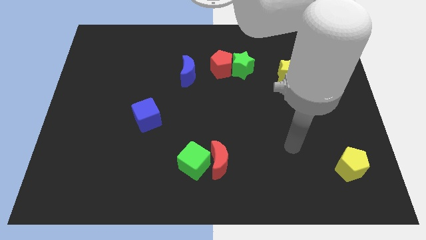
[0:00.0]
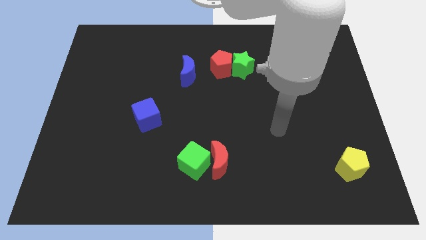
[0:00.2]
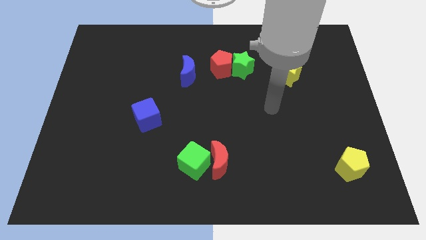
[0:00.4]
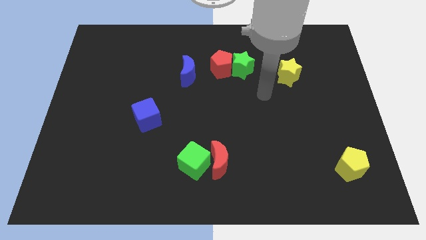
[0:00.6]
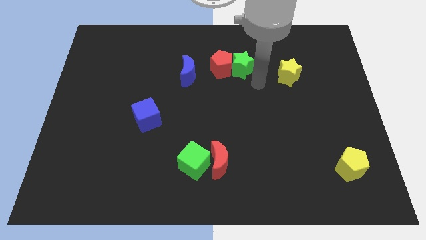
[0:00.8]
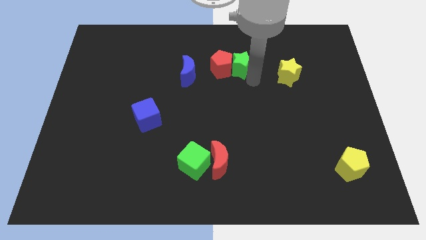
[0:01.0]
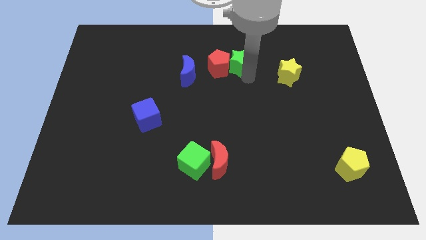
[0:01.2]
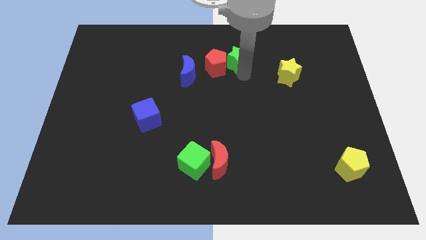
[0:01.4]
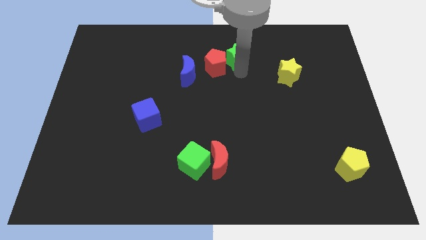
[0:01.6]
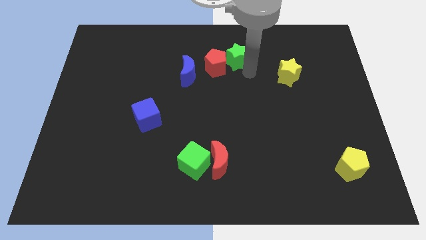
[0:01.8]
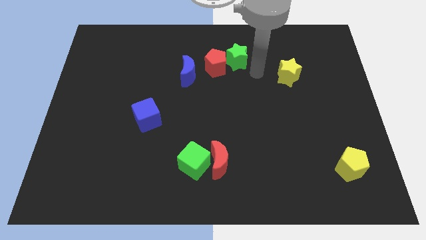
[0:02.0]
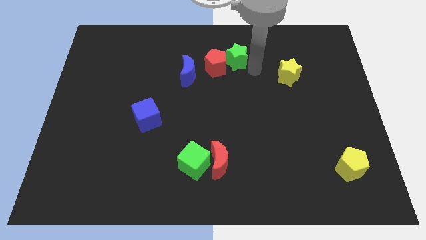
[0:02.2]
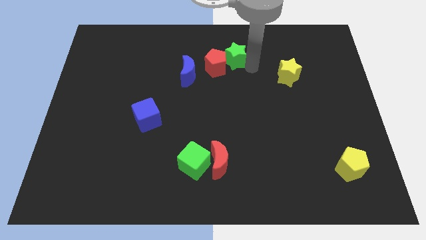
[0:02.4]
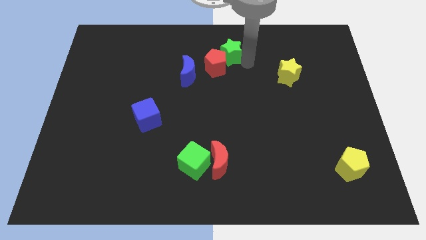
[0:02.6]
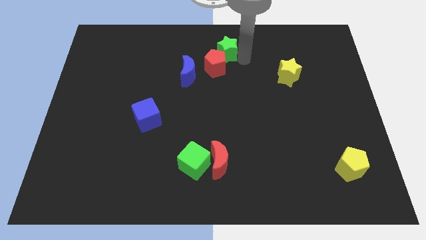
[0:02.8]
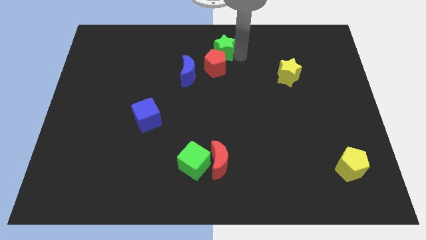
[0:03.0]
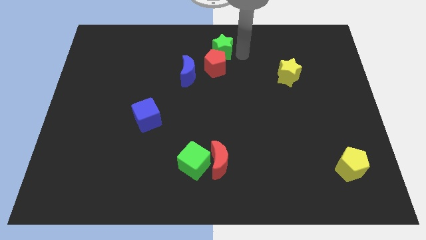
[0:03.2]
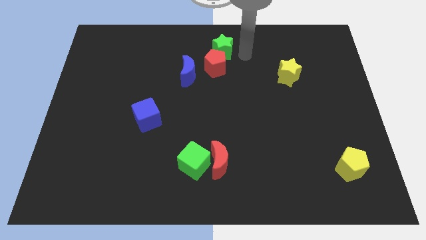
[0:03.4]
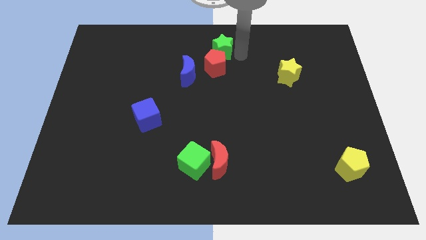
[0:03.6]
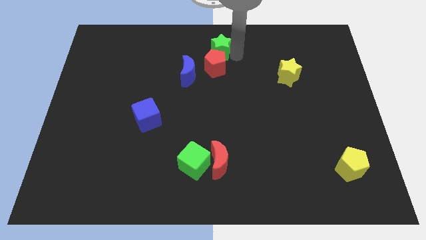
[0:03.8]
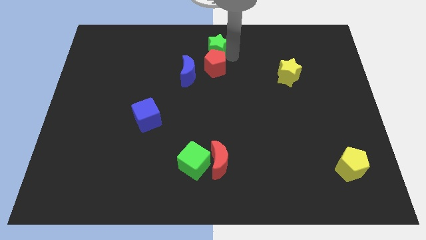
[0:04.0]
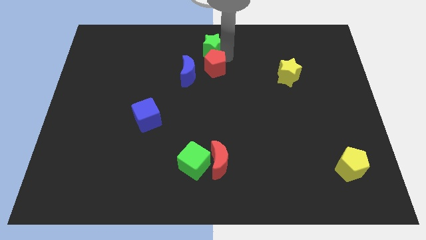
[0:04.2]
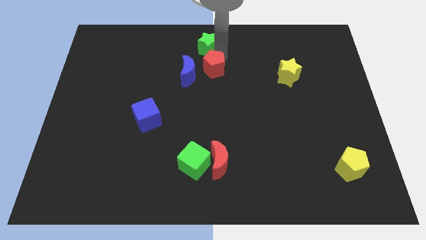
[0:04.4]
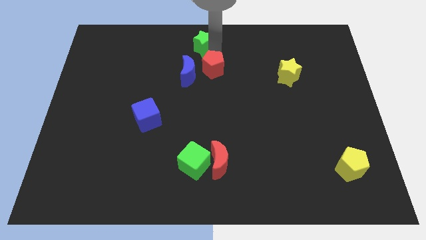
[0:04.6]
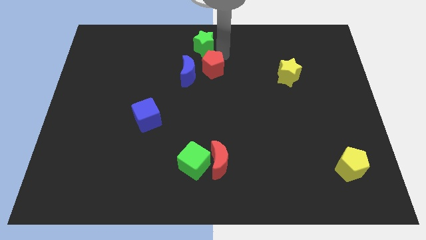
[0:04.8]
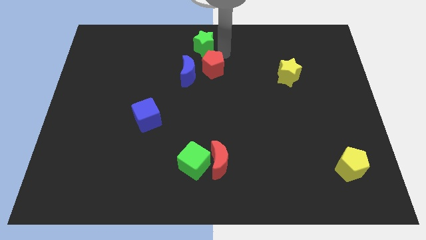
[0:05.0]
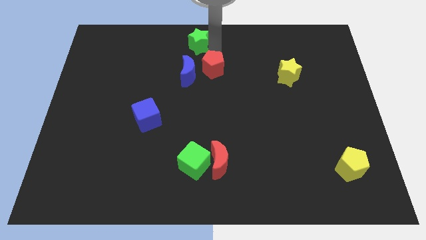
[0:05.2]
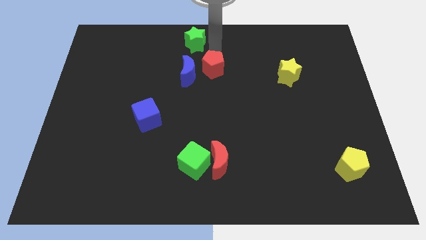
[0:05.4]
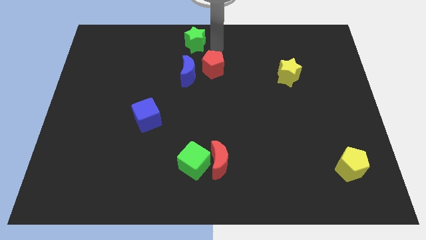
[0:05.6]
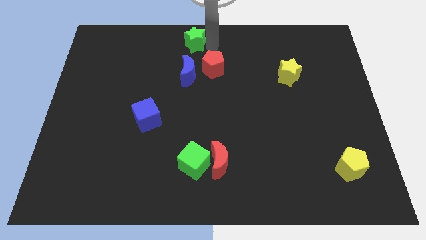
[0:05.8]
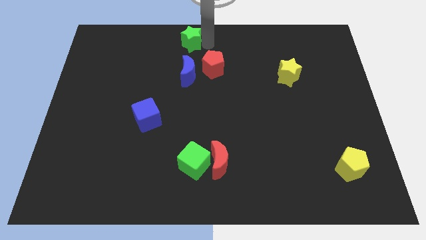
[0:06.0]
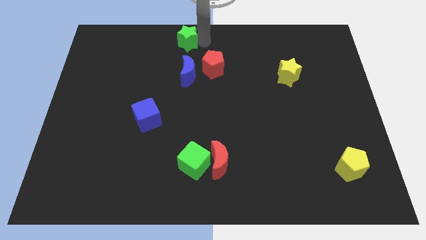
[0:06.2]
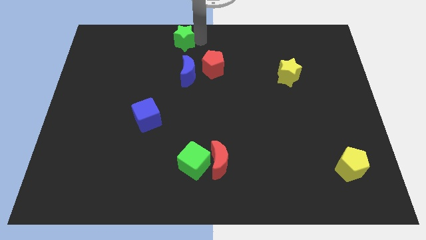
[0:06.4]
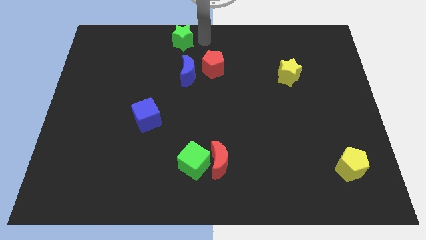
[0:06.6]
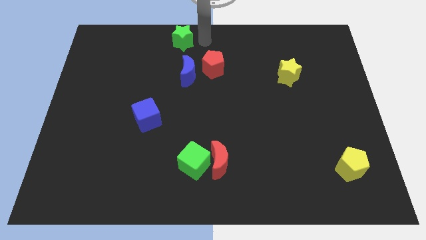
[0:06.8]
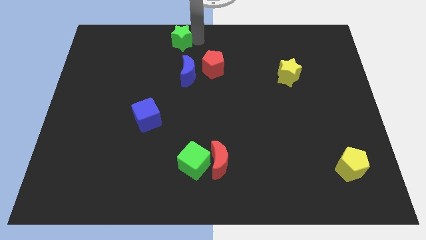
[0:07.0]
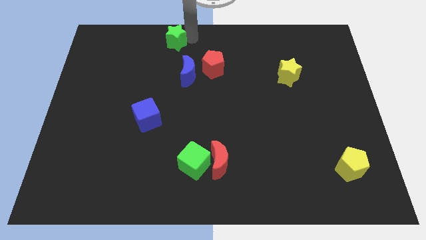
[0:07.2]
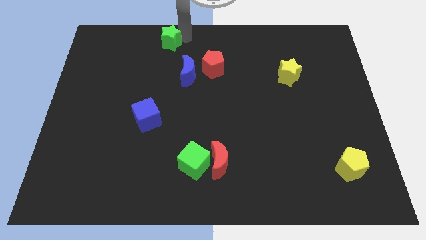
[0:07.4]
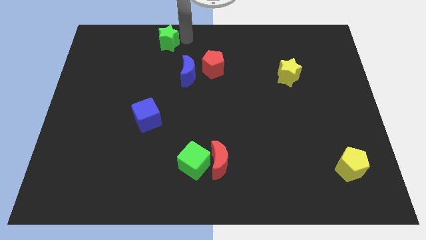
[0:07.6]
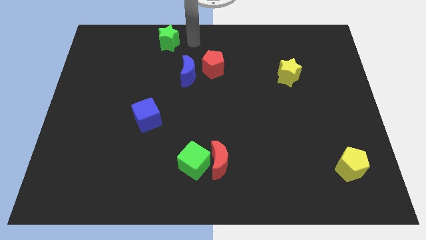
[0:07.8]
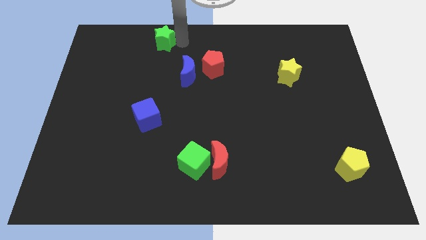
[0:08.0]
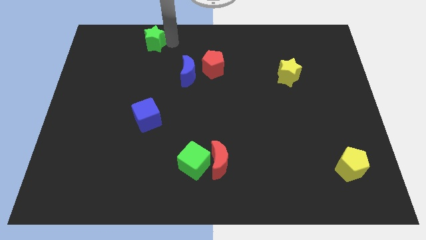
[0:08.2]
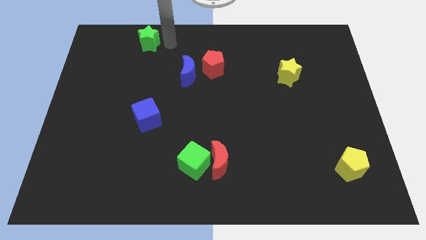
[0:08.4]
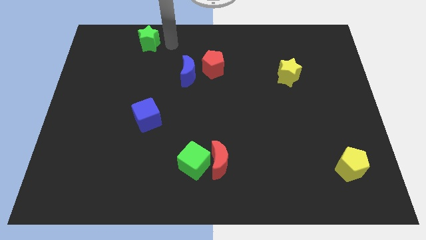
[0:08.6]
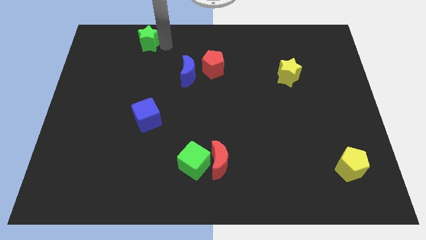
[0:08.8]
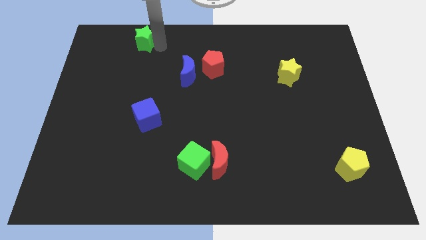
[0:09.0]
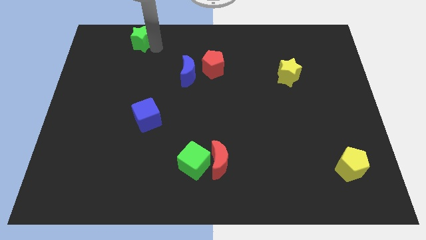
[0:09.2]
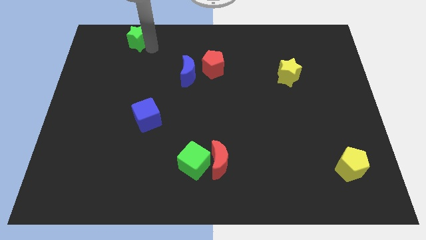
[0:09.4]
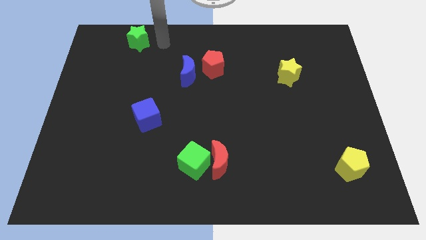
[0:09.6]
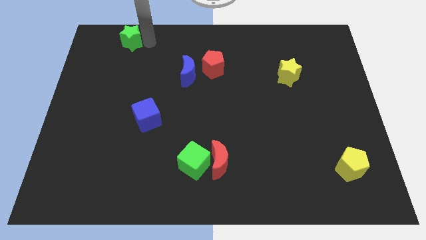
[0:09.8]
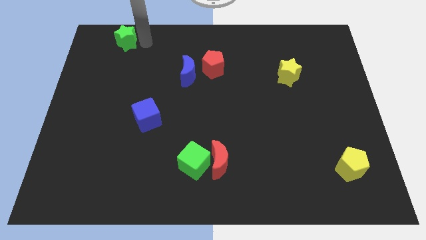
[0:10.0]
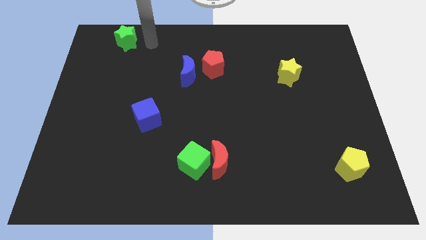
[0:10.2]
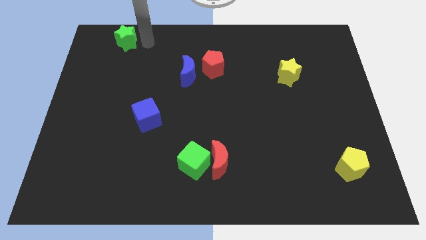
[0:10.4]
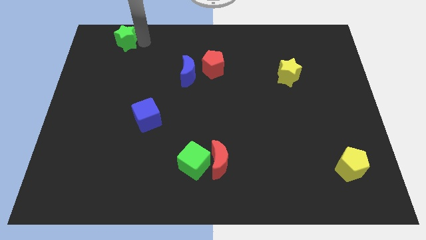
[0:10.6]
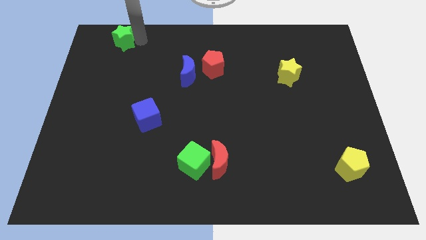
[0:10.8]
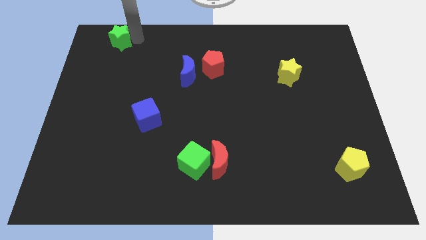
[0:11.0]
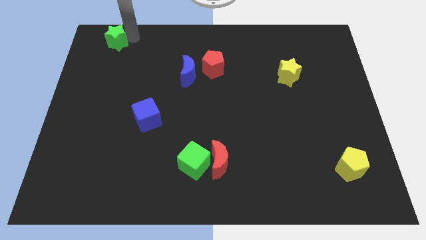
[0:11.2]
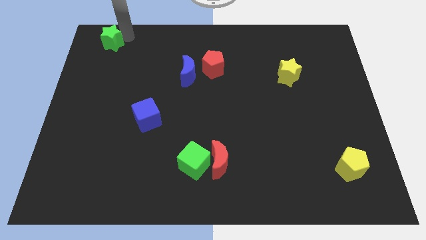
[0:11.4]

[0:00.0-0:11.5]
slide the green star to the top left

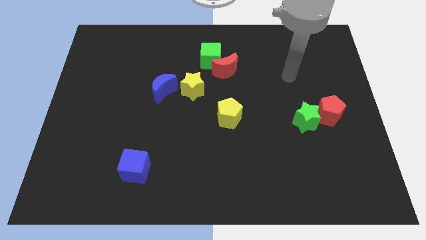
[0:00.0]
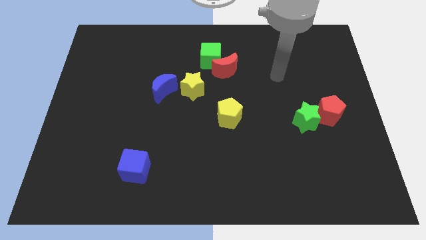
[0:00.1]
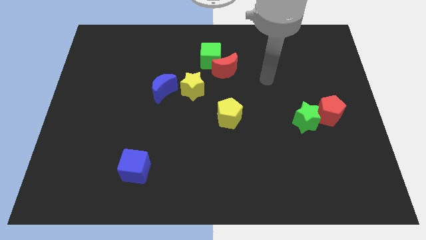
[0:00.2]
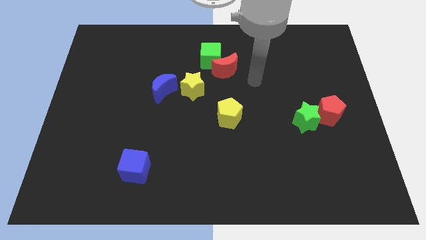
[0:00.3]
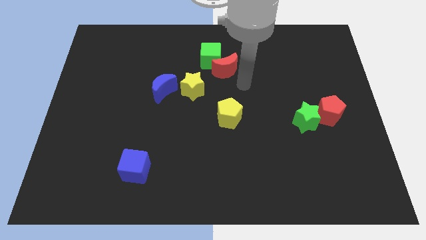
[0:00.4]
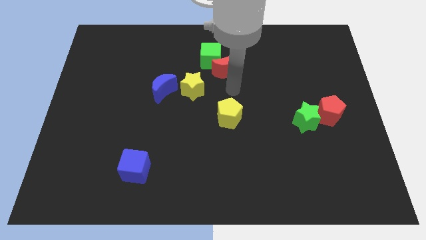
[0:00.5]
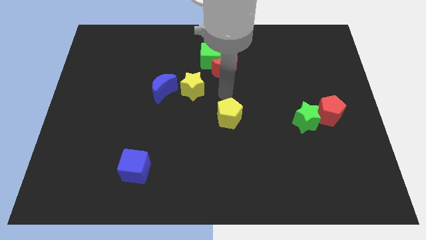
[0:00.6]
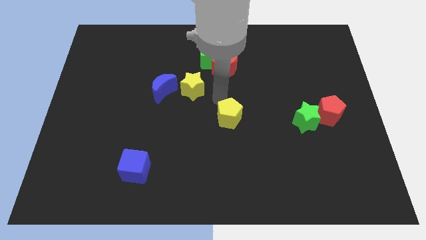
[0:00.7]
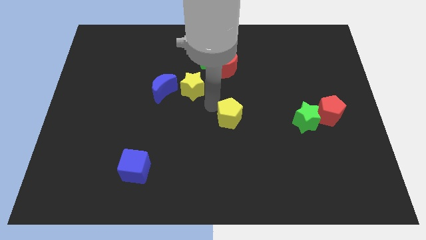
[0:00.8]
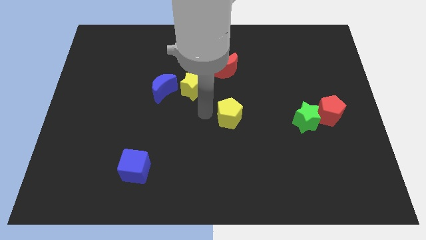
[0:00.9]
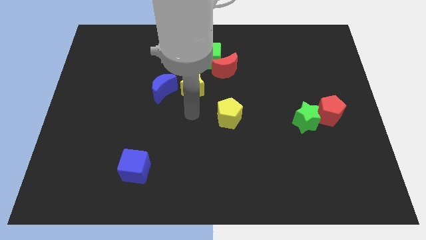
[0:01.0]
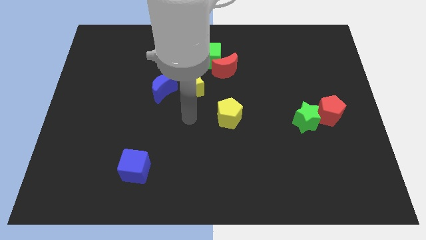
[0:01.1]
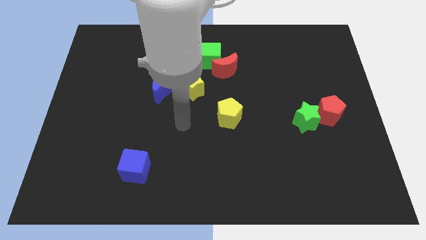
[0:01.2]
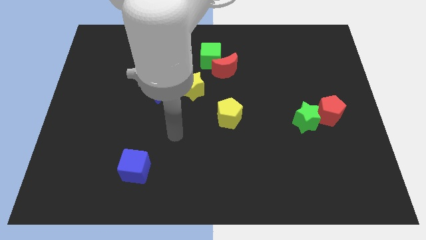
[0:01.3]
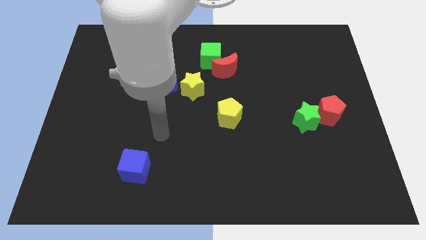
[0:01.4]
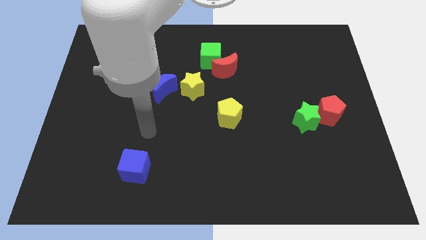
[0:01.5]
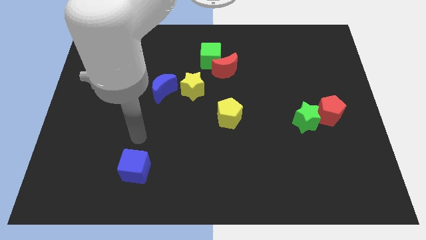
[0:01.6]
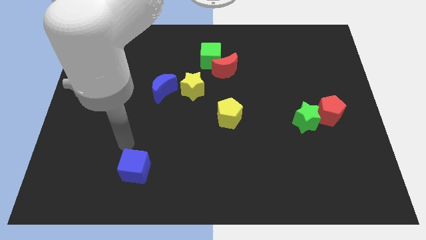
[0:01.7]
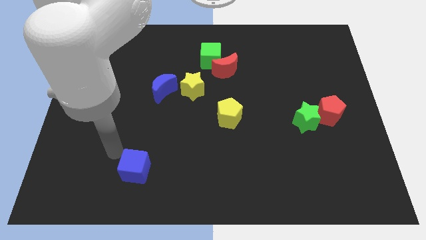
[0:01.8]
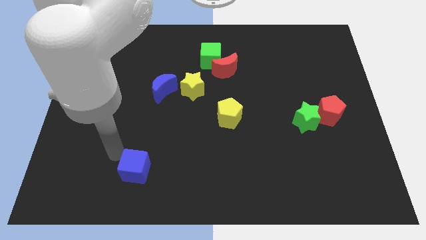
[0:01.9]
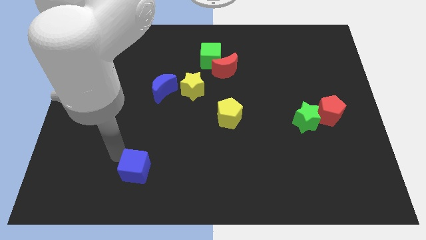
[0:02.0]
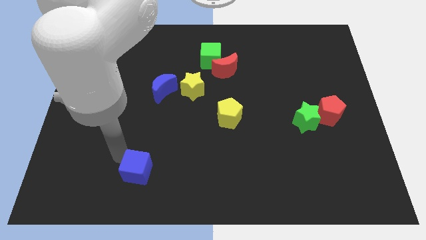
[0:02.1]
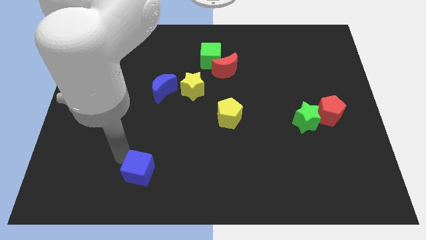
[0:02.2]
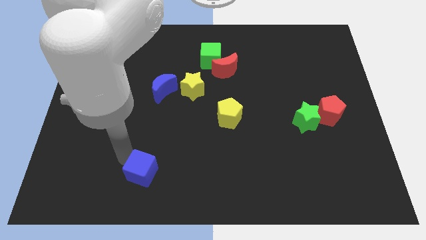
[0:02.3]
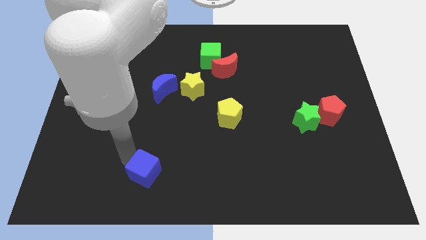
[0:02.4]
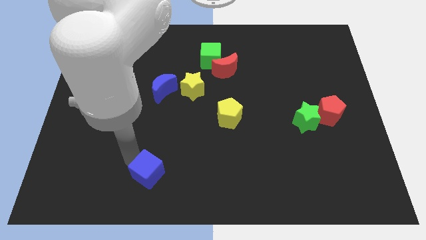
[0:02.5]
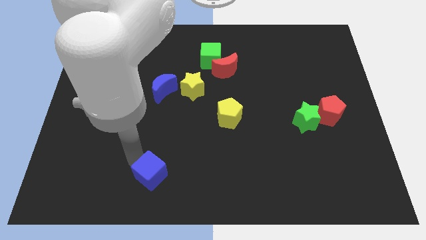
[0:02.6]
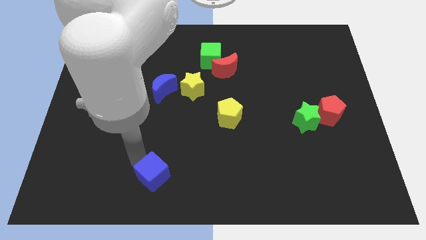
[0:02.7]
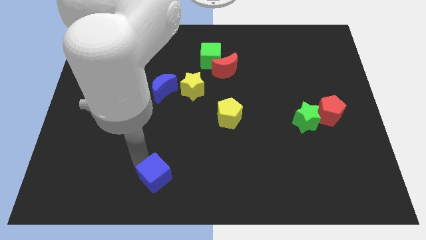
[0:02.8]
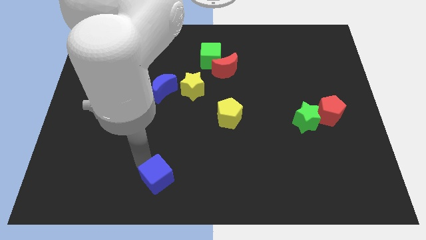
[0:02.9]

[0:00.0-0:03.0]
put the blue cube to the bottom side
